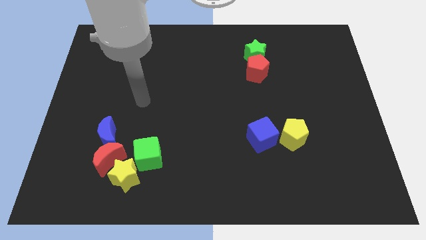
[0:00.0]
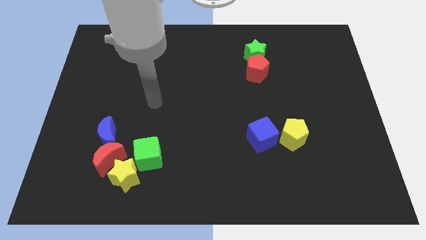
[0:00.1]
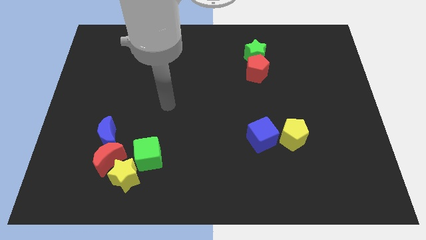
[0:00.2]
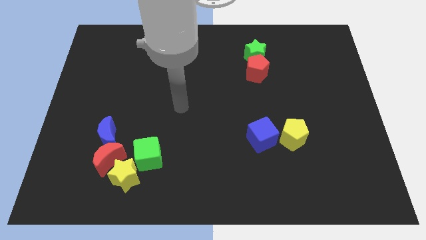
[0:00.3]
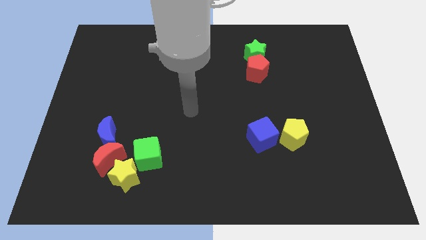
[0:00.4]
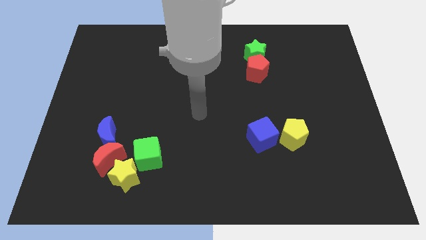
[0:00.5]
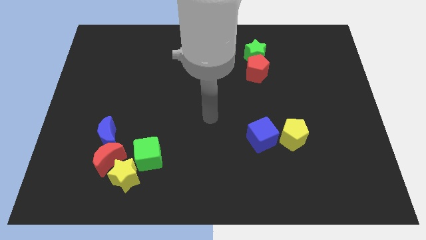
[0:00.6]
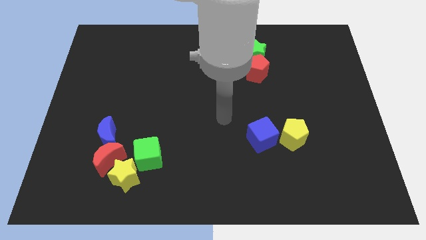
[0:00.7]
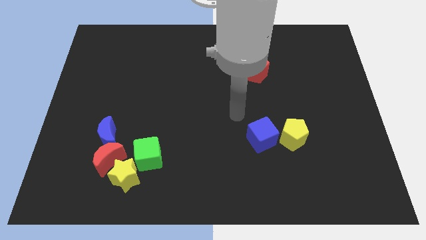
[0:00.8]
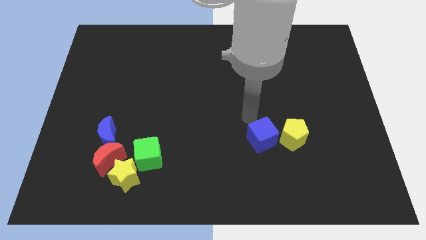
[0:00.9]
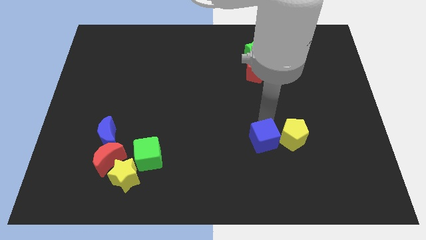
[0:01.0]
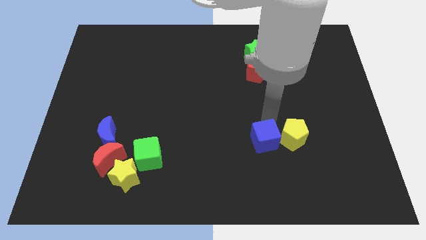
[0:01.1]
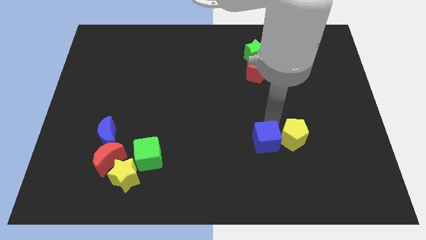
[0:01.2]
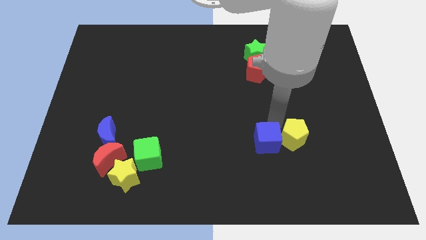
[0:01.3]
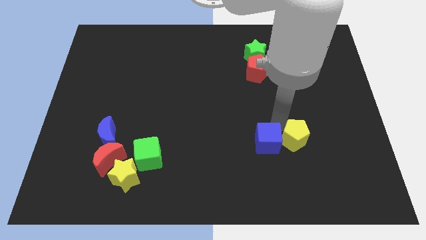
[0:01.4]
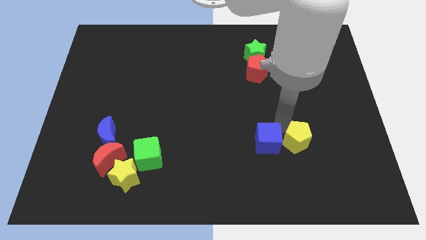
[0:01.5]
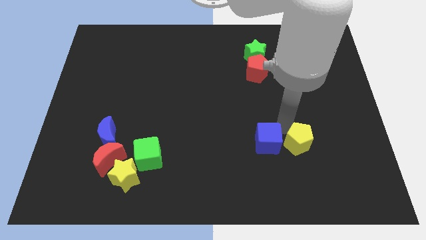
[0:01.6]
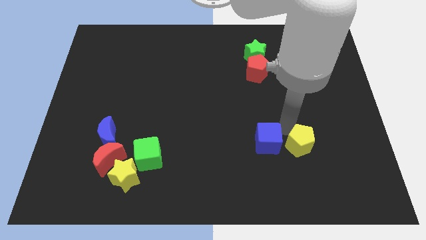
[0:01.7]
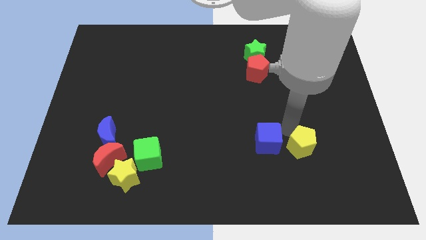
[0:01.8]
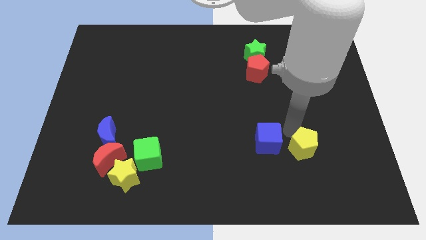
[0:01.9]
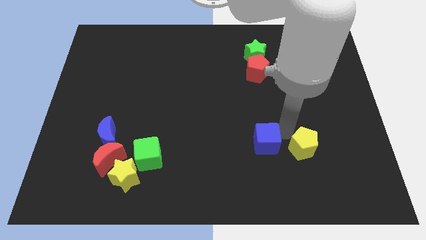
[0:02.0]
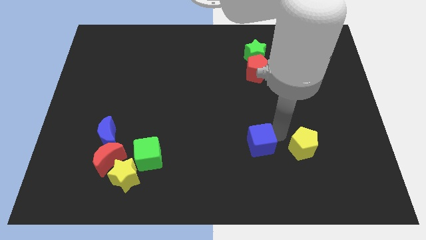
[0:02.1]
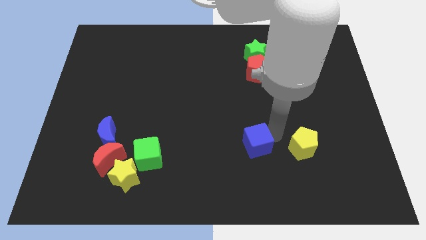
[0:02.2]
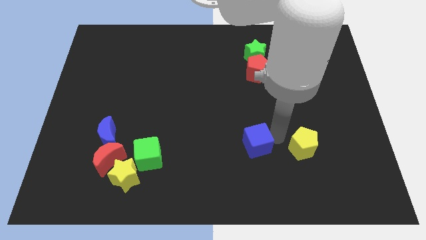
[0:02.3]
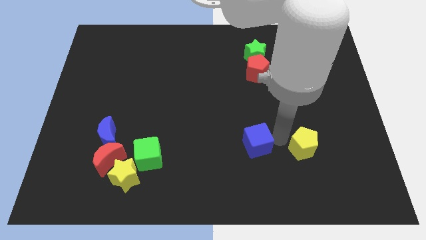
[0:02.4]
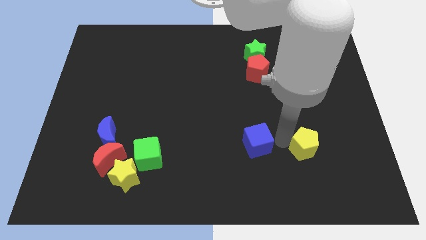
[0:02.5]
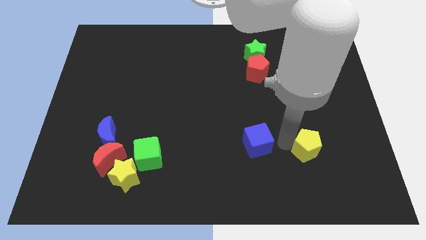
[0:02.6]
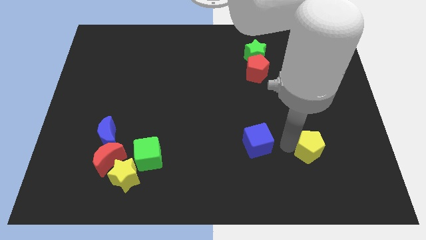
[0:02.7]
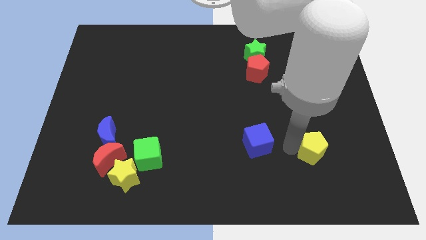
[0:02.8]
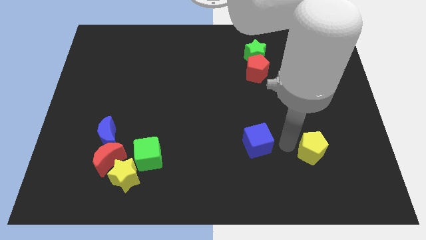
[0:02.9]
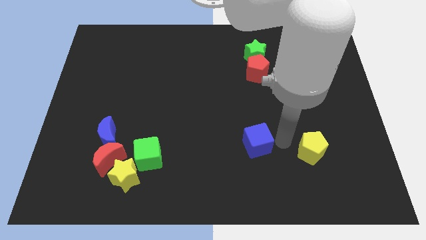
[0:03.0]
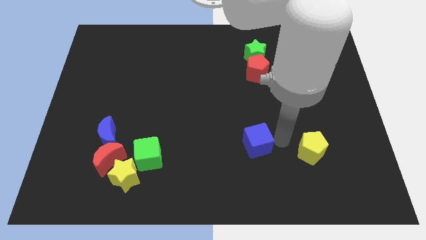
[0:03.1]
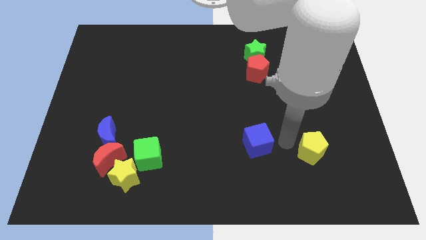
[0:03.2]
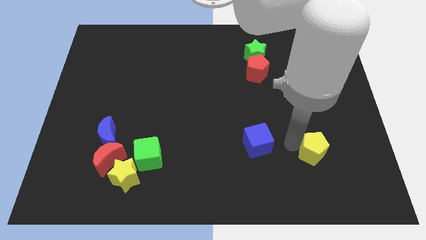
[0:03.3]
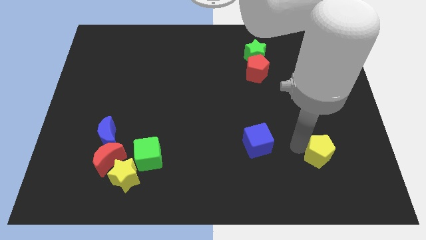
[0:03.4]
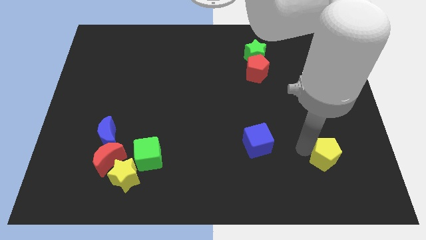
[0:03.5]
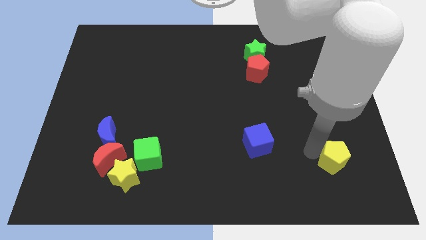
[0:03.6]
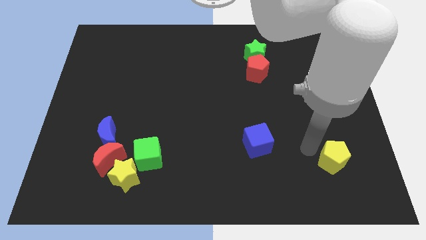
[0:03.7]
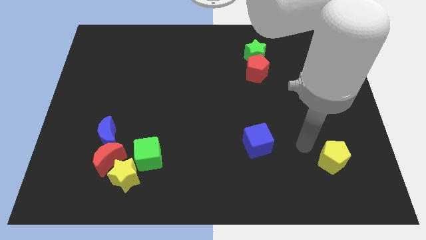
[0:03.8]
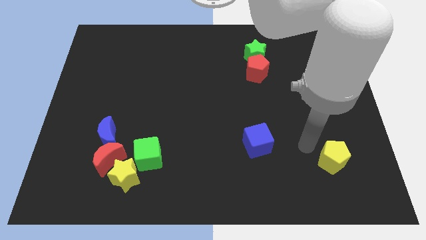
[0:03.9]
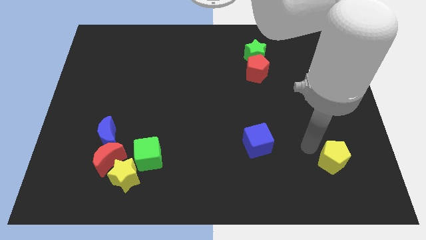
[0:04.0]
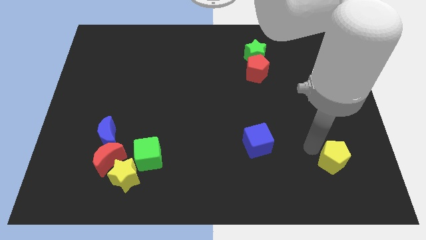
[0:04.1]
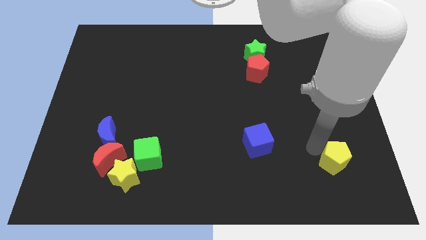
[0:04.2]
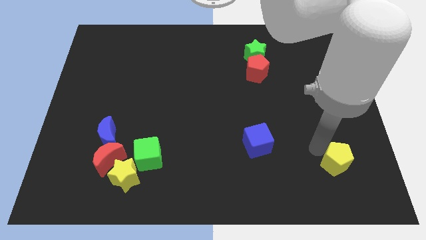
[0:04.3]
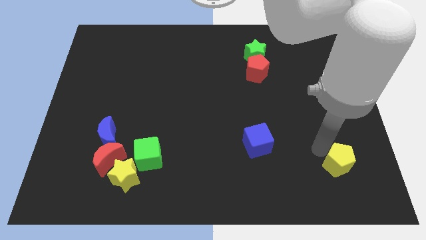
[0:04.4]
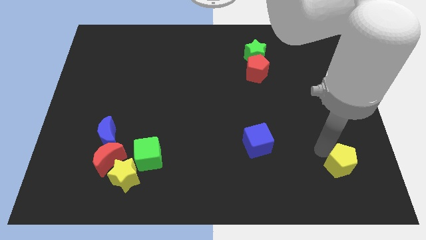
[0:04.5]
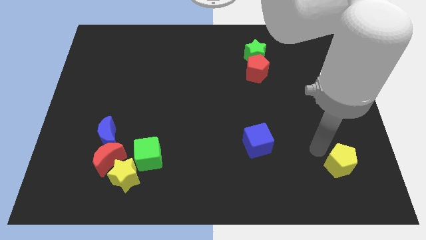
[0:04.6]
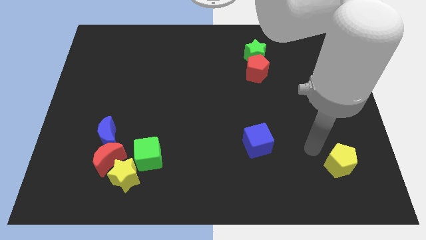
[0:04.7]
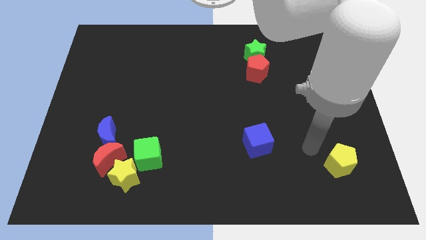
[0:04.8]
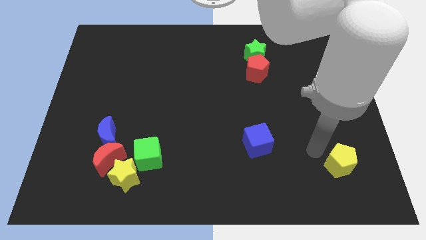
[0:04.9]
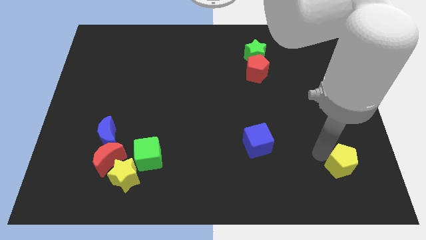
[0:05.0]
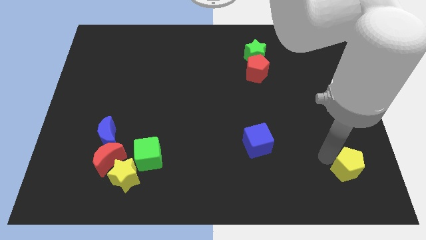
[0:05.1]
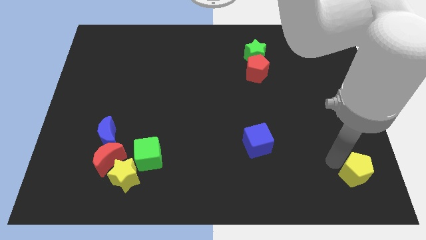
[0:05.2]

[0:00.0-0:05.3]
put the yellow pentagon to the bottom right of the board
